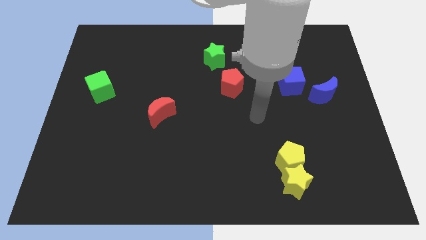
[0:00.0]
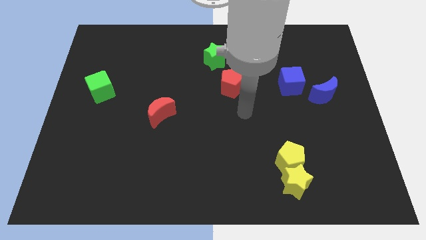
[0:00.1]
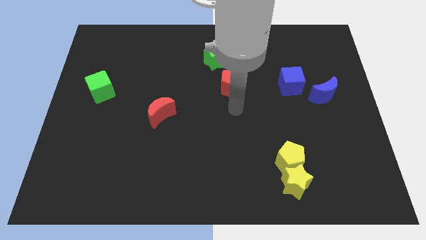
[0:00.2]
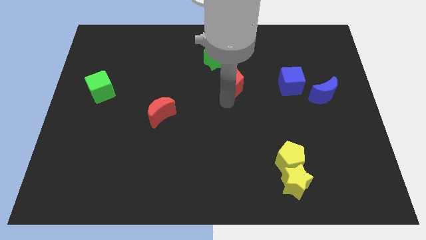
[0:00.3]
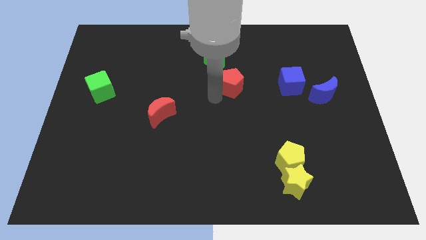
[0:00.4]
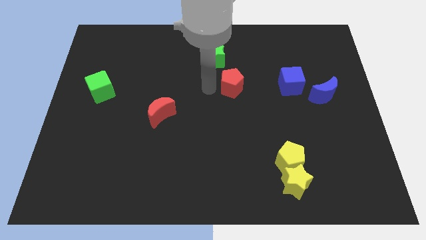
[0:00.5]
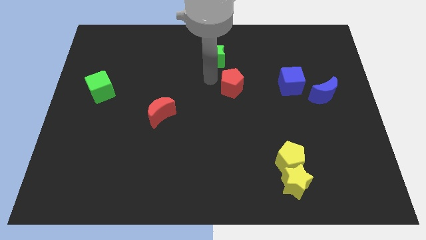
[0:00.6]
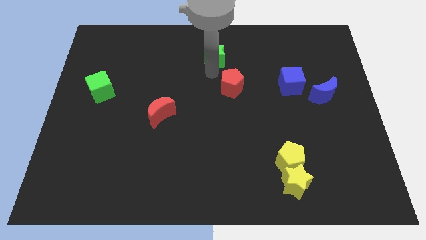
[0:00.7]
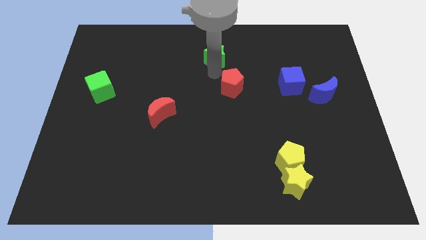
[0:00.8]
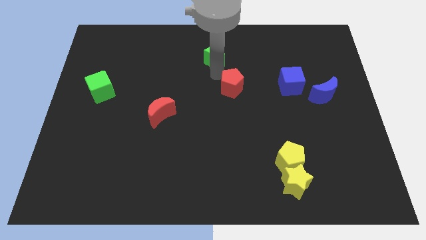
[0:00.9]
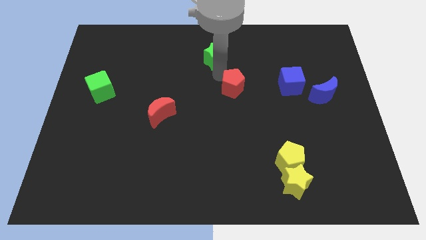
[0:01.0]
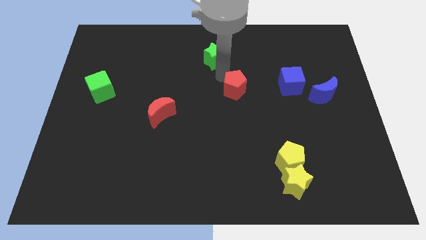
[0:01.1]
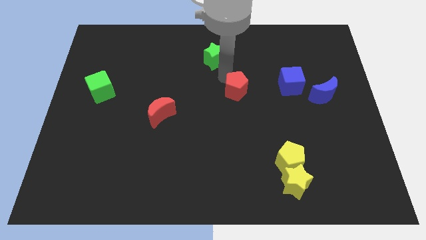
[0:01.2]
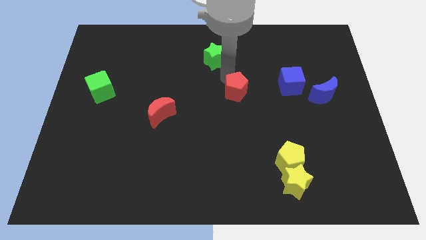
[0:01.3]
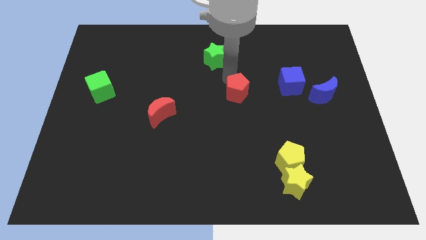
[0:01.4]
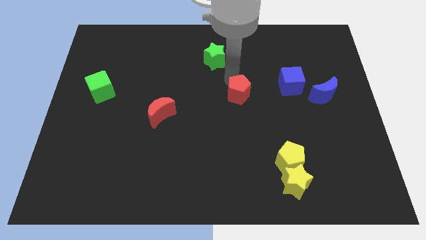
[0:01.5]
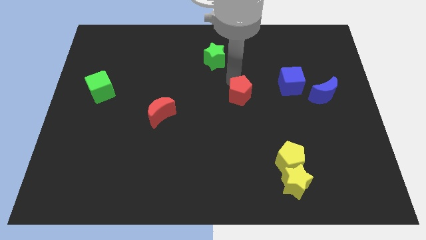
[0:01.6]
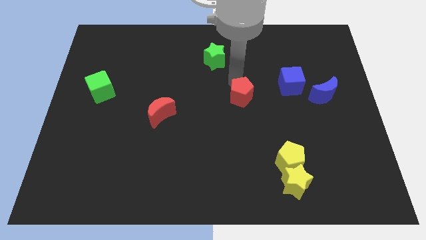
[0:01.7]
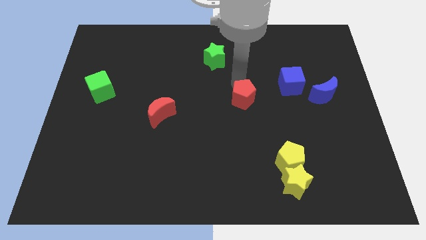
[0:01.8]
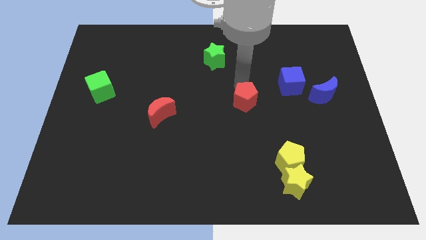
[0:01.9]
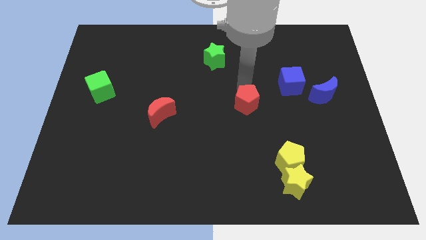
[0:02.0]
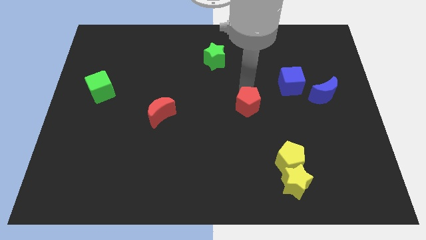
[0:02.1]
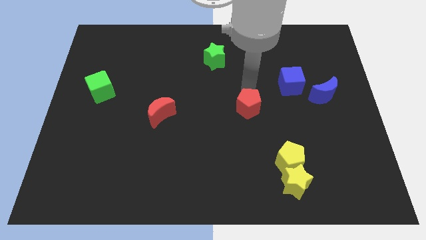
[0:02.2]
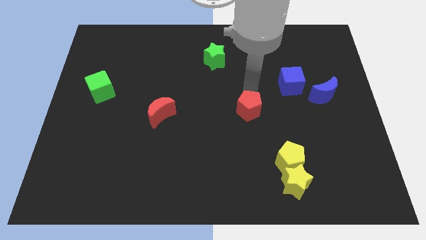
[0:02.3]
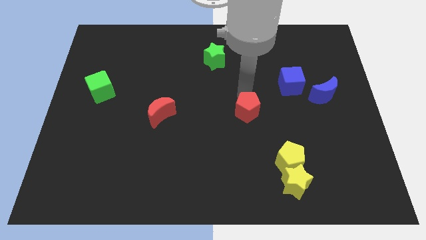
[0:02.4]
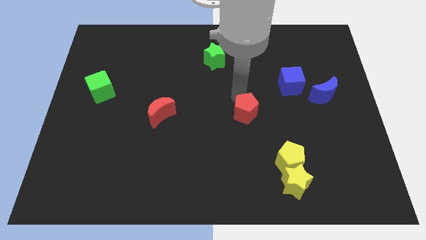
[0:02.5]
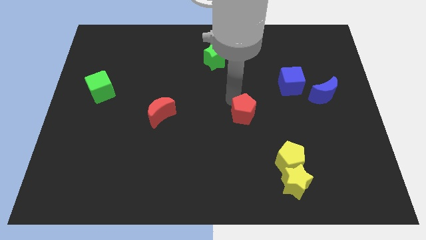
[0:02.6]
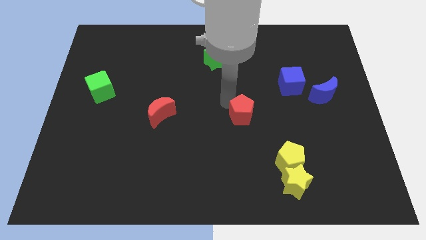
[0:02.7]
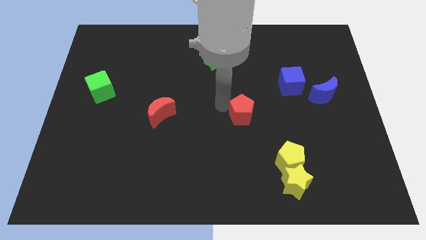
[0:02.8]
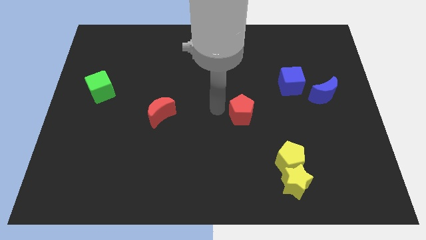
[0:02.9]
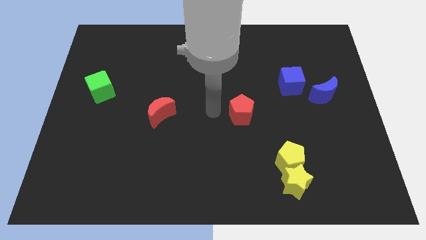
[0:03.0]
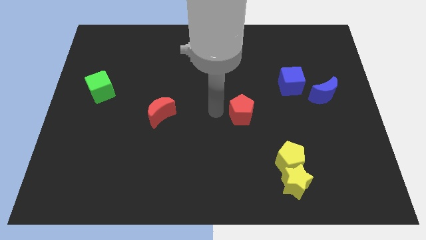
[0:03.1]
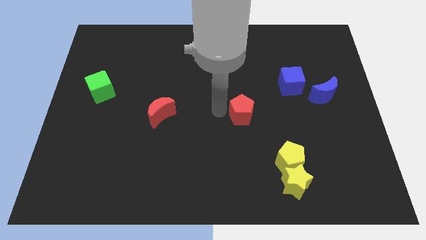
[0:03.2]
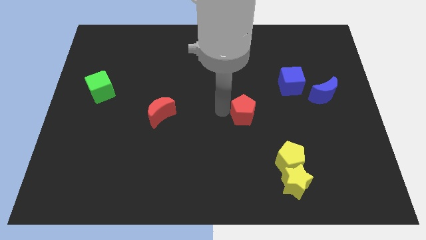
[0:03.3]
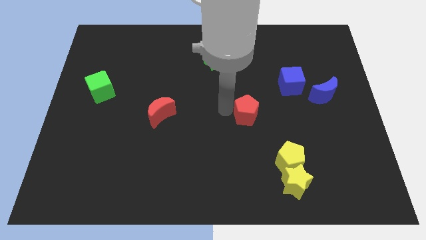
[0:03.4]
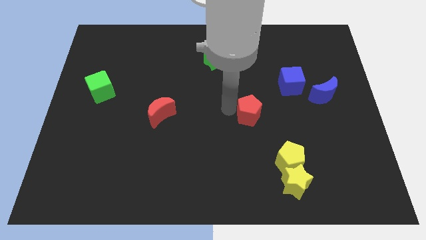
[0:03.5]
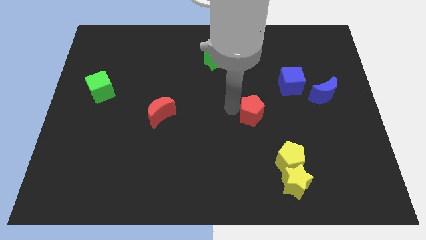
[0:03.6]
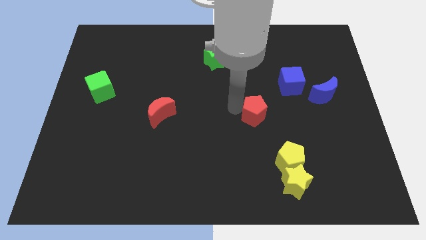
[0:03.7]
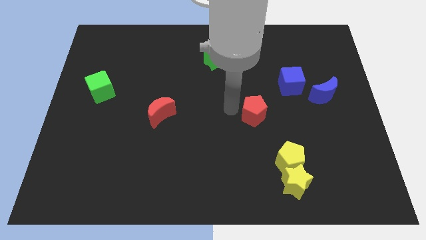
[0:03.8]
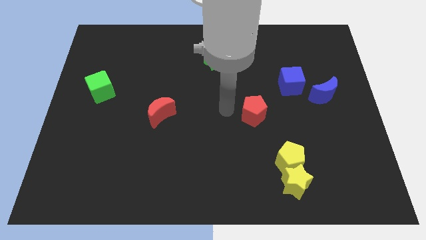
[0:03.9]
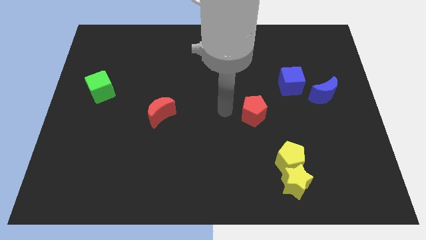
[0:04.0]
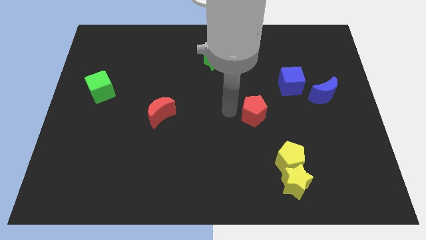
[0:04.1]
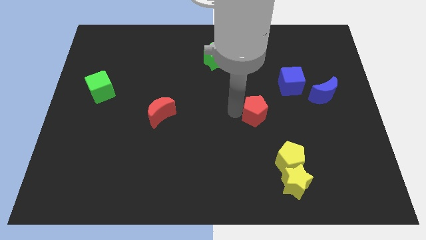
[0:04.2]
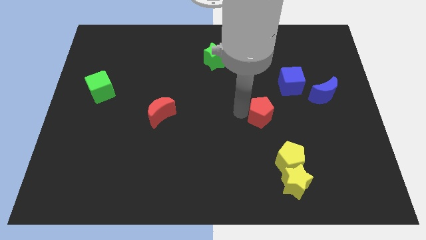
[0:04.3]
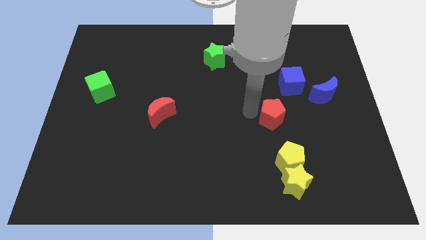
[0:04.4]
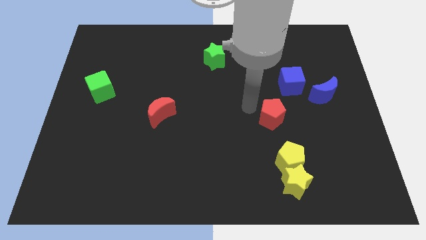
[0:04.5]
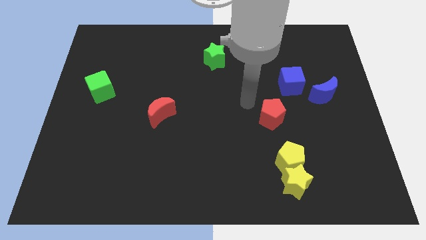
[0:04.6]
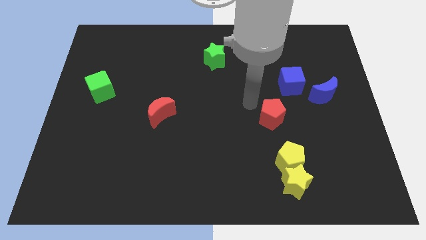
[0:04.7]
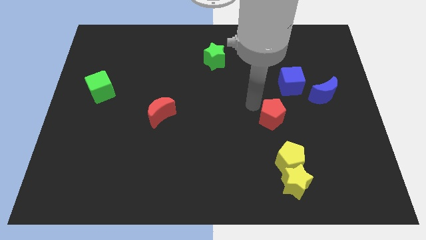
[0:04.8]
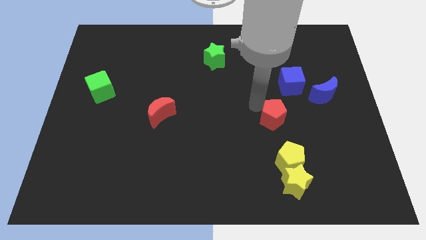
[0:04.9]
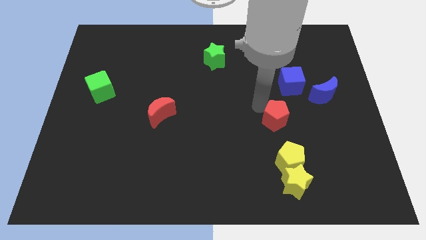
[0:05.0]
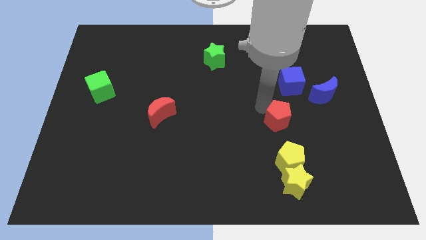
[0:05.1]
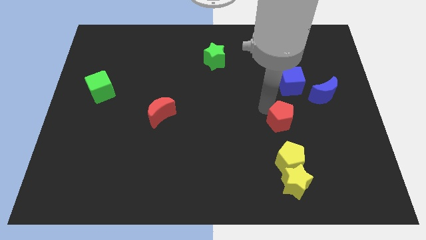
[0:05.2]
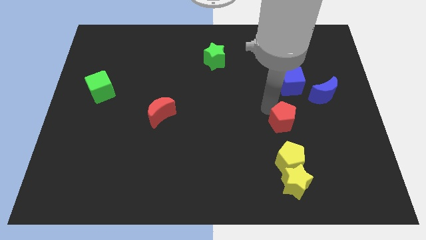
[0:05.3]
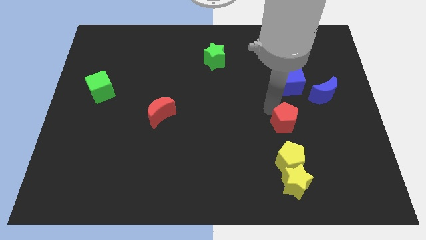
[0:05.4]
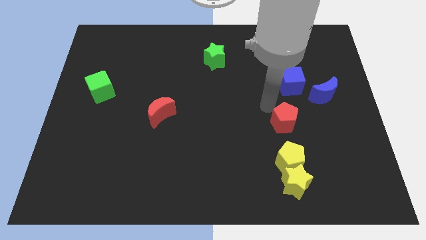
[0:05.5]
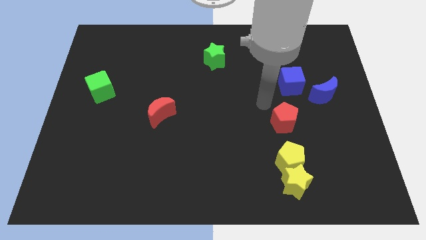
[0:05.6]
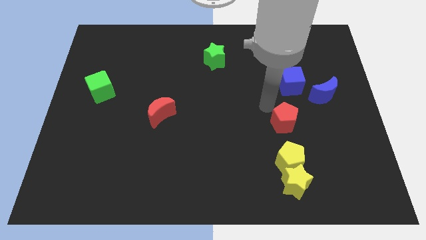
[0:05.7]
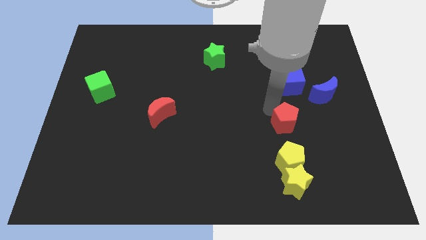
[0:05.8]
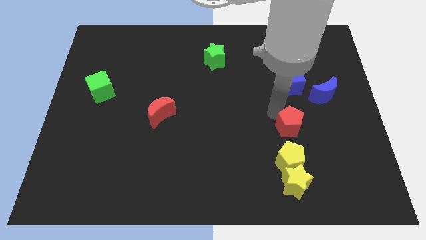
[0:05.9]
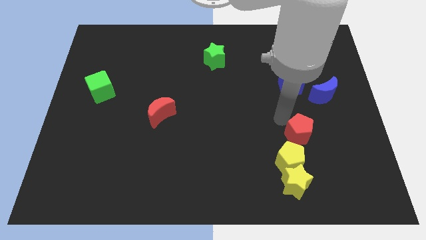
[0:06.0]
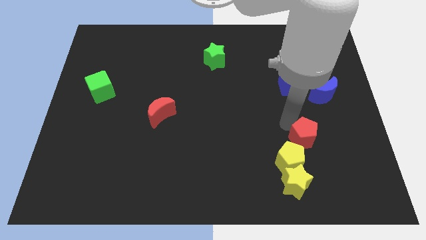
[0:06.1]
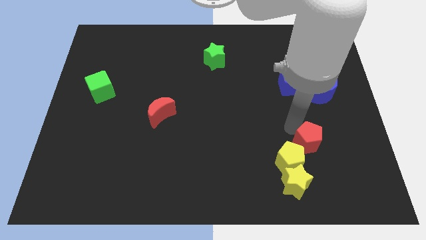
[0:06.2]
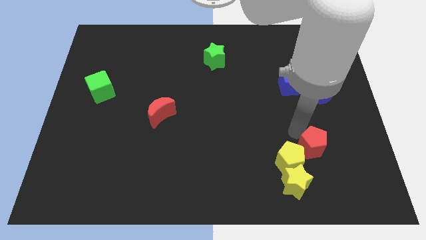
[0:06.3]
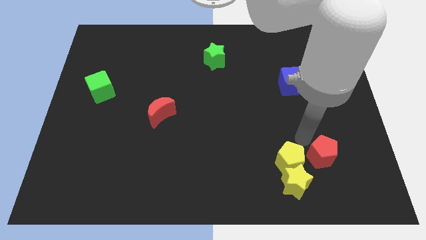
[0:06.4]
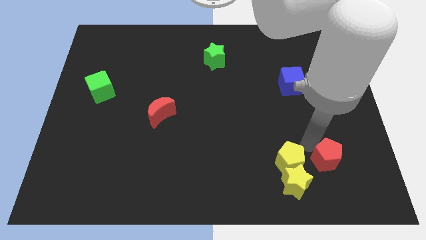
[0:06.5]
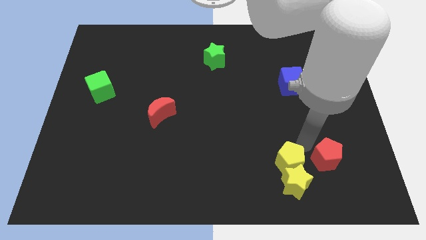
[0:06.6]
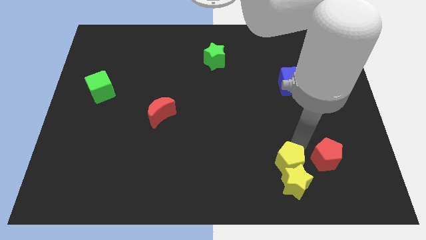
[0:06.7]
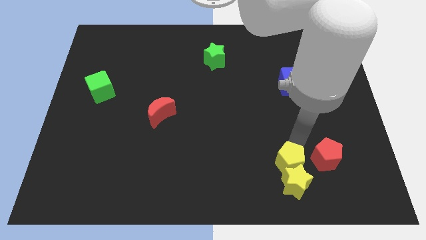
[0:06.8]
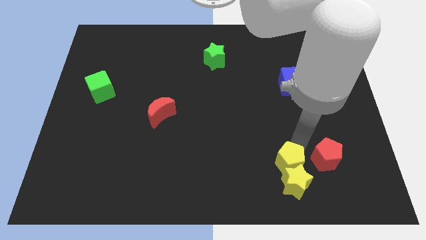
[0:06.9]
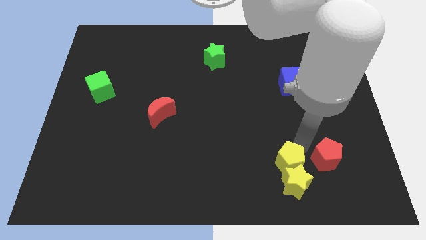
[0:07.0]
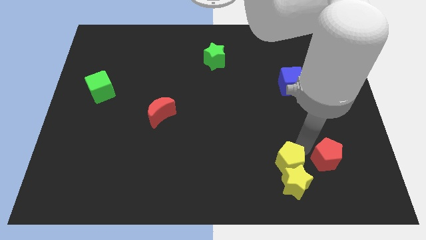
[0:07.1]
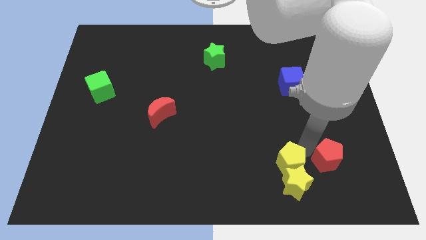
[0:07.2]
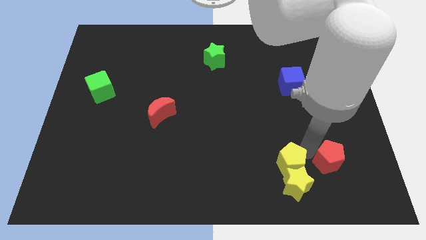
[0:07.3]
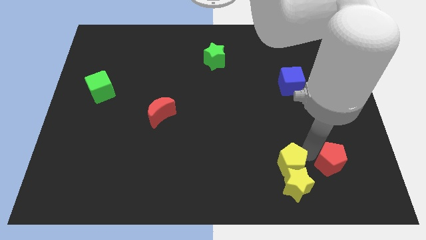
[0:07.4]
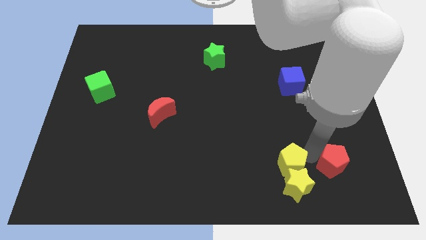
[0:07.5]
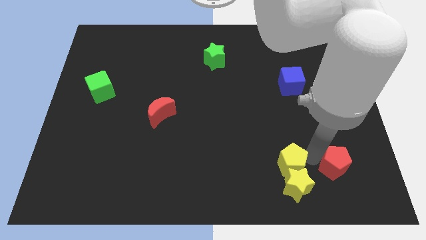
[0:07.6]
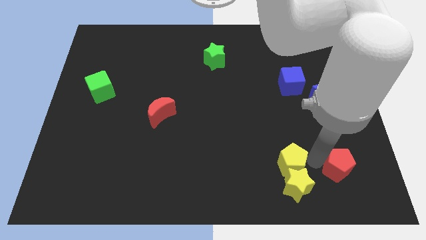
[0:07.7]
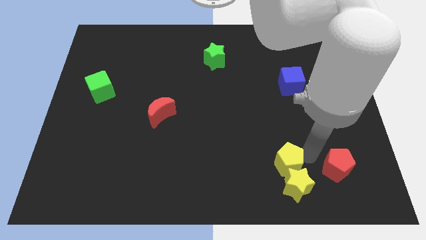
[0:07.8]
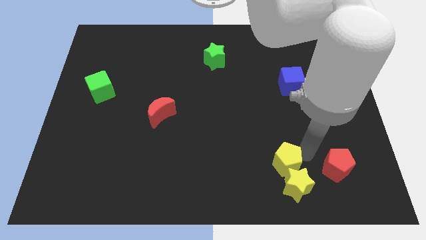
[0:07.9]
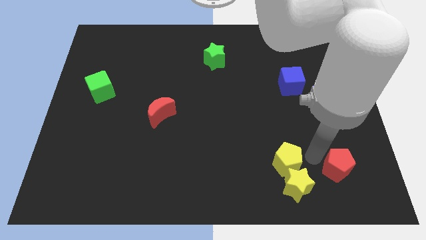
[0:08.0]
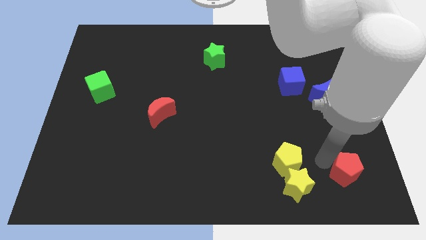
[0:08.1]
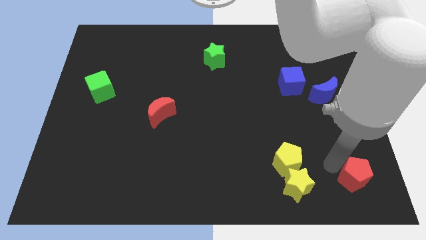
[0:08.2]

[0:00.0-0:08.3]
put the red pentagon to the bottom right corner
